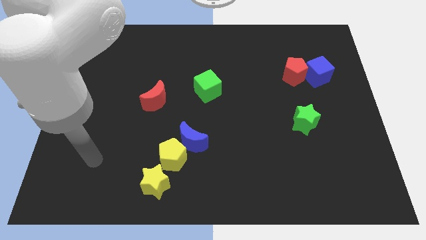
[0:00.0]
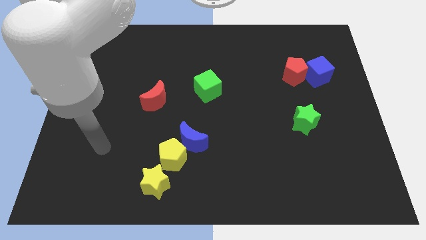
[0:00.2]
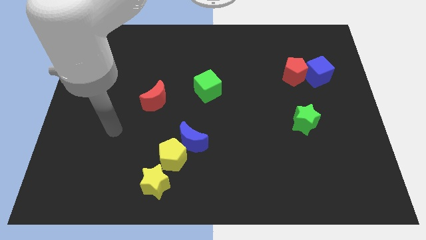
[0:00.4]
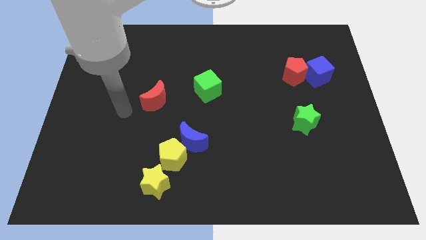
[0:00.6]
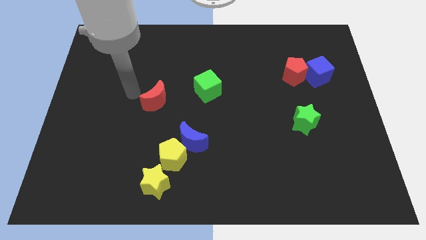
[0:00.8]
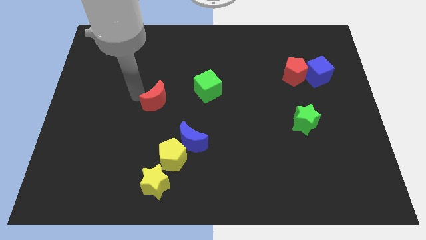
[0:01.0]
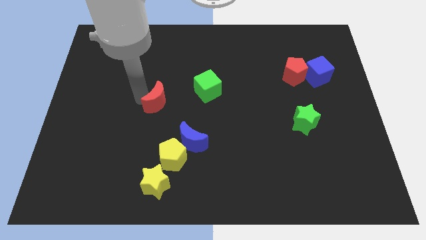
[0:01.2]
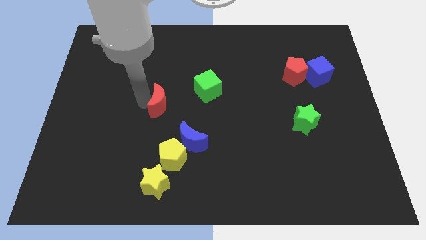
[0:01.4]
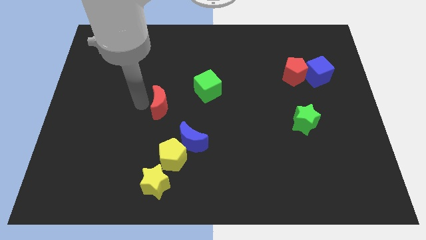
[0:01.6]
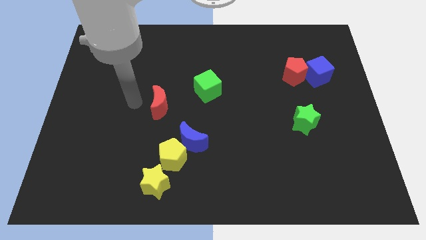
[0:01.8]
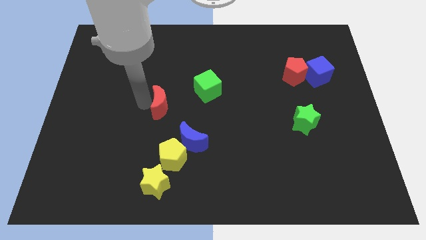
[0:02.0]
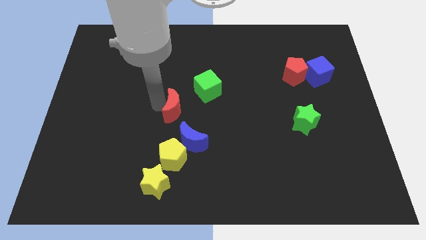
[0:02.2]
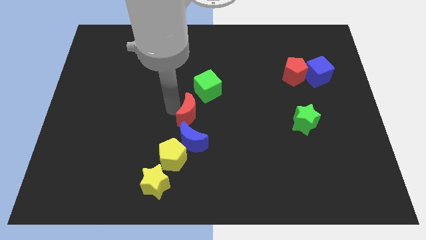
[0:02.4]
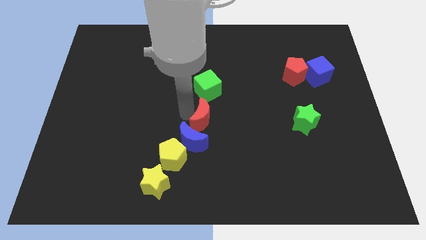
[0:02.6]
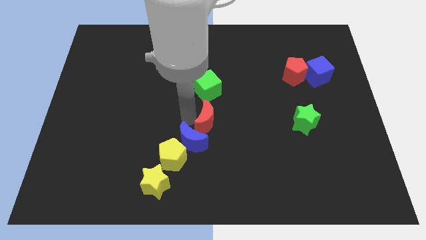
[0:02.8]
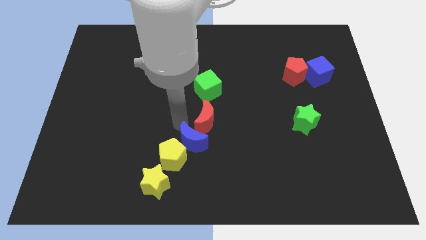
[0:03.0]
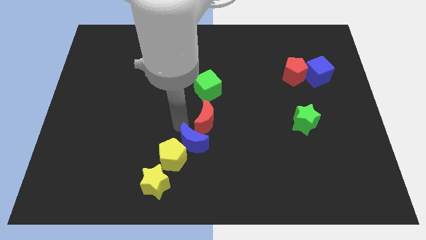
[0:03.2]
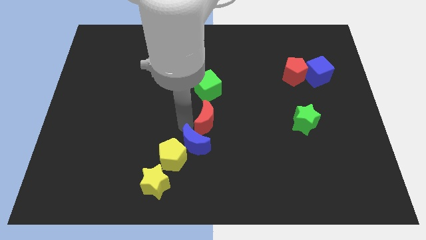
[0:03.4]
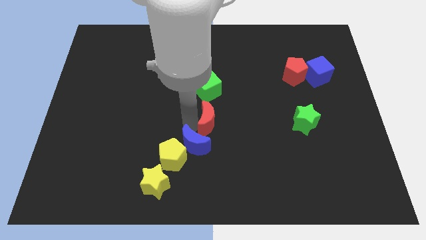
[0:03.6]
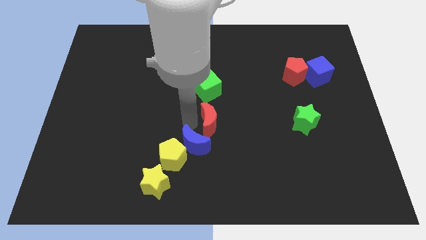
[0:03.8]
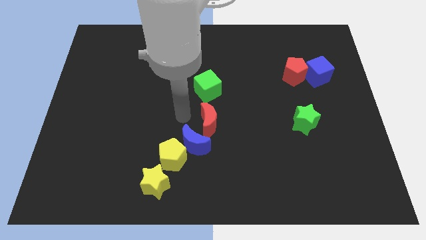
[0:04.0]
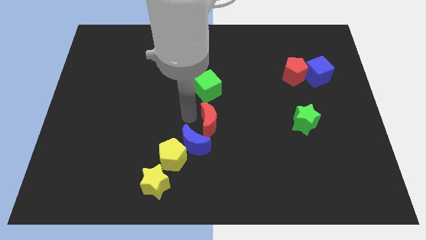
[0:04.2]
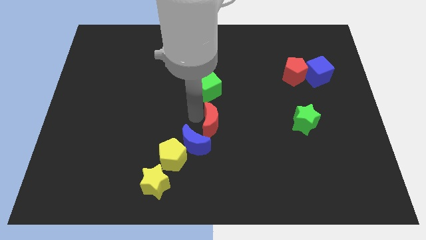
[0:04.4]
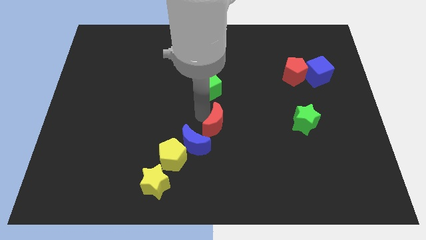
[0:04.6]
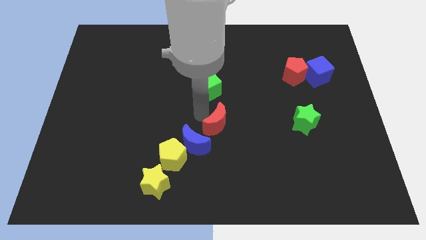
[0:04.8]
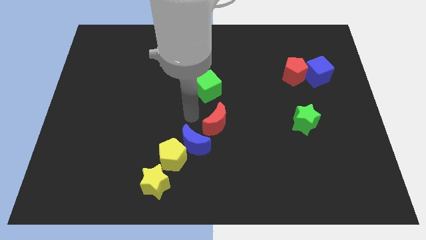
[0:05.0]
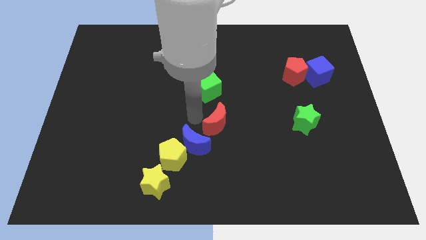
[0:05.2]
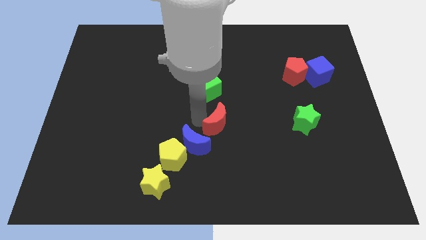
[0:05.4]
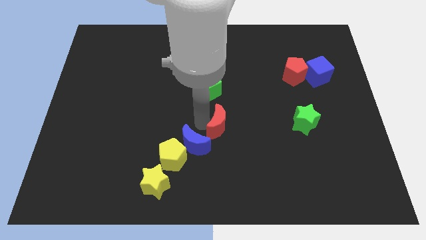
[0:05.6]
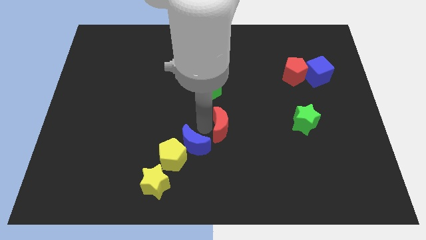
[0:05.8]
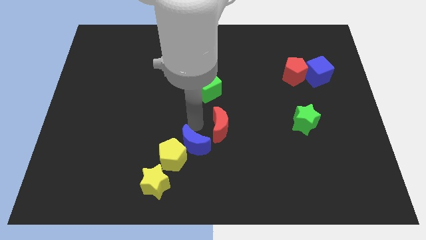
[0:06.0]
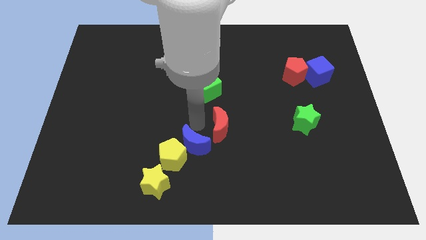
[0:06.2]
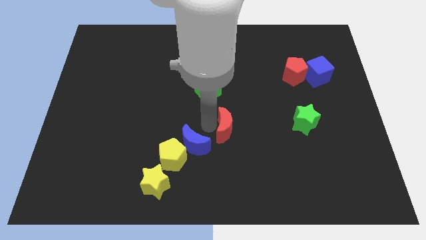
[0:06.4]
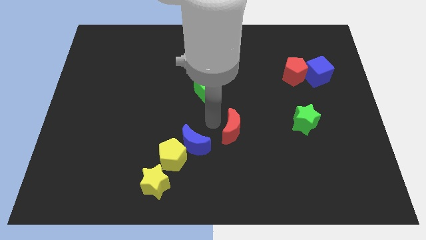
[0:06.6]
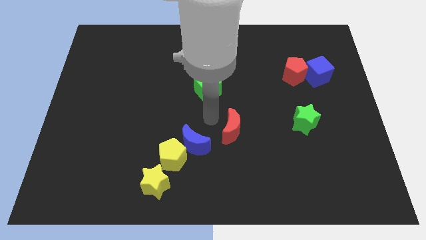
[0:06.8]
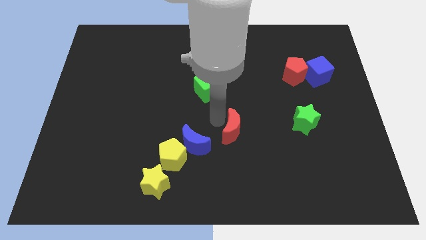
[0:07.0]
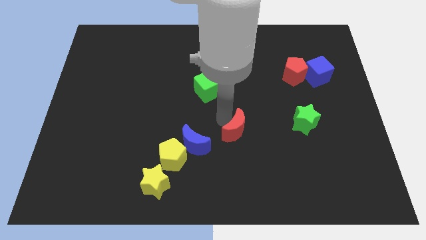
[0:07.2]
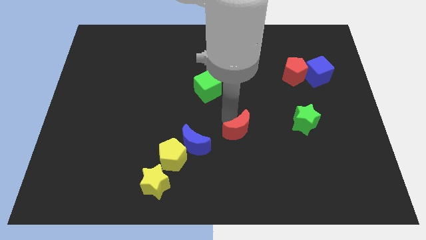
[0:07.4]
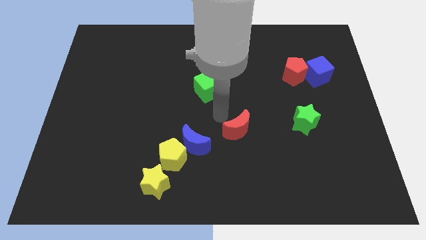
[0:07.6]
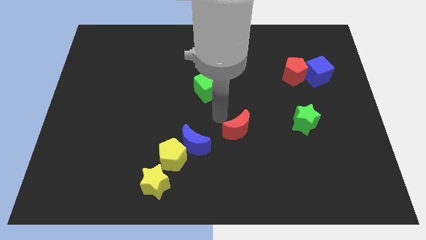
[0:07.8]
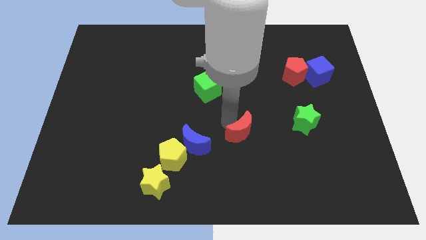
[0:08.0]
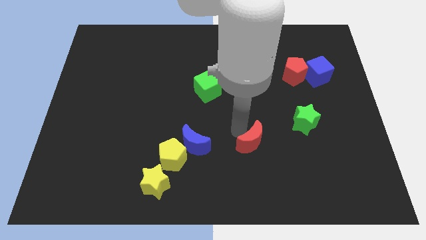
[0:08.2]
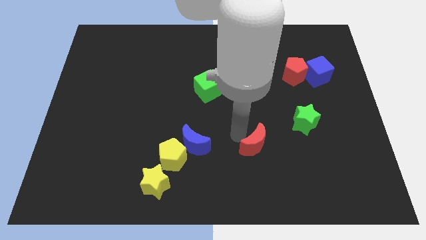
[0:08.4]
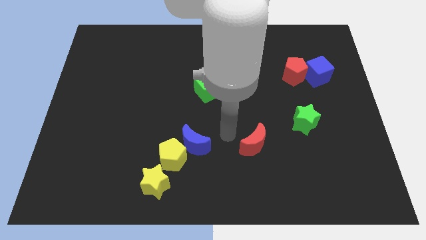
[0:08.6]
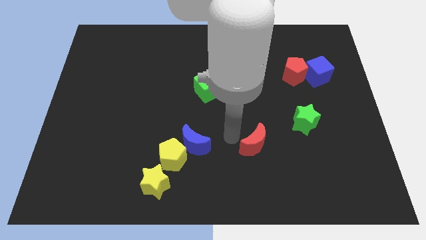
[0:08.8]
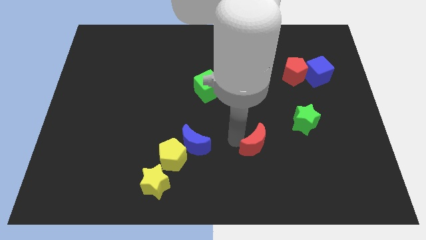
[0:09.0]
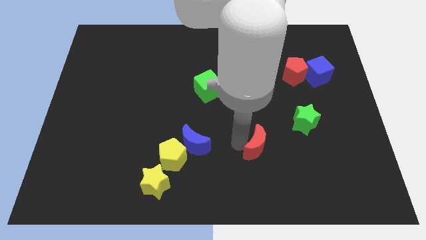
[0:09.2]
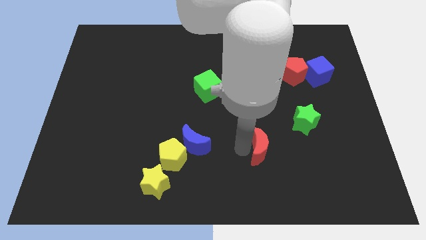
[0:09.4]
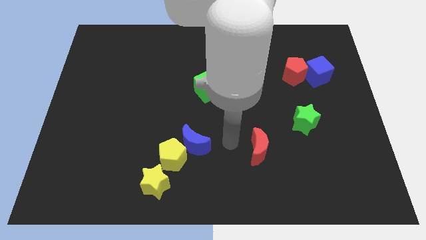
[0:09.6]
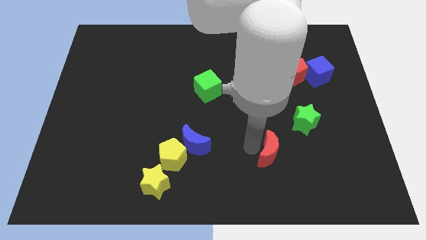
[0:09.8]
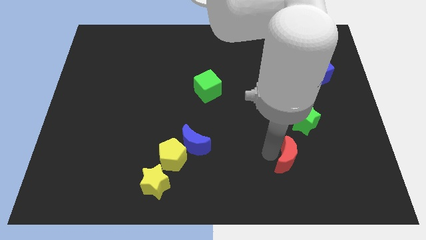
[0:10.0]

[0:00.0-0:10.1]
slide the red moon below the green star
